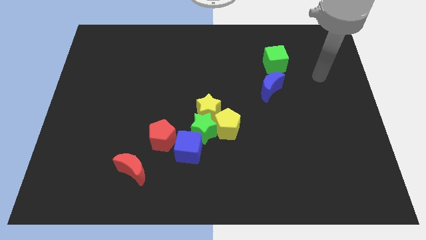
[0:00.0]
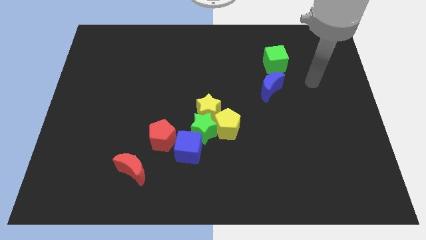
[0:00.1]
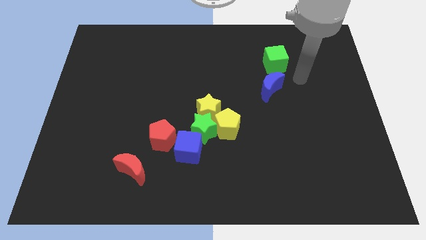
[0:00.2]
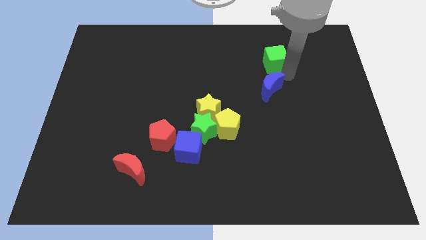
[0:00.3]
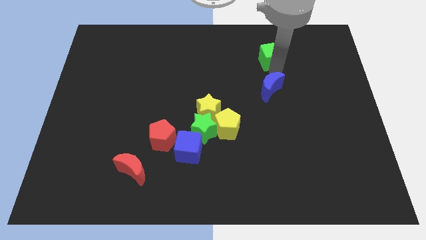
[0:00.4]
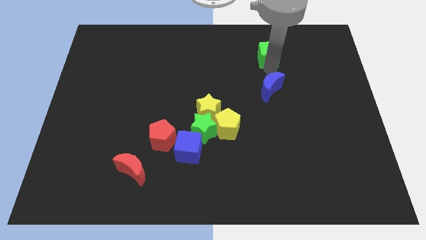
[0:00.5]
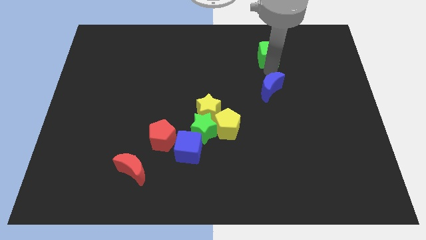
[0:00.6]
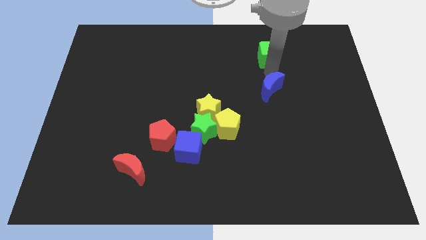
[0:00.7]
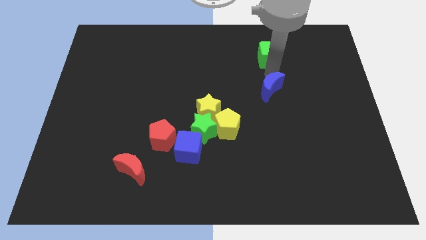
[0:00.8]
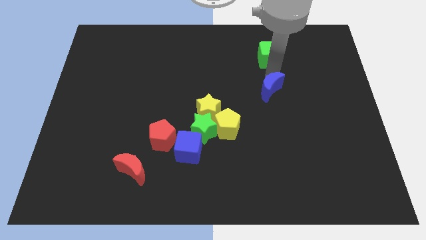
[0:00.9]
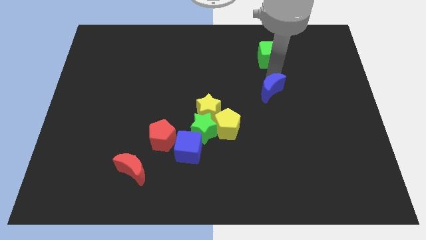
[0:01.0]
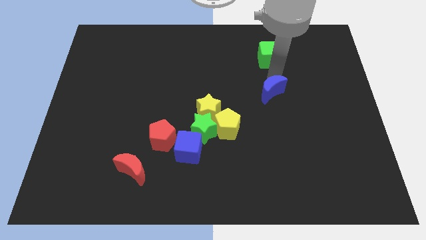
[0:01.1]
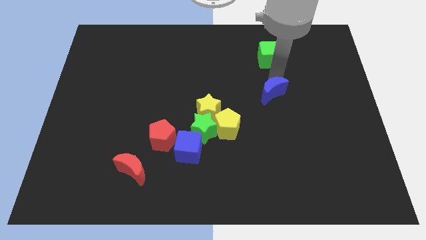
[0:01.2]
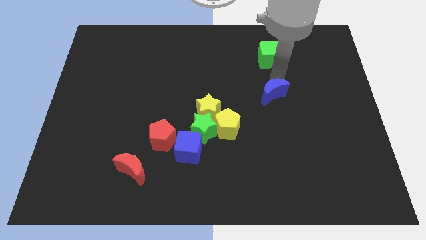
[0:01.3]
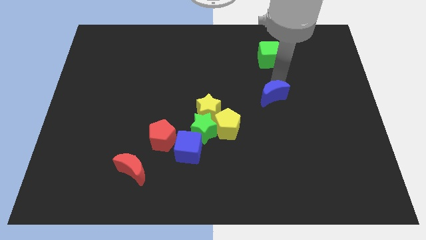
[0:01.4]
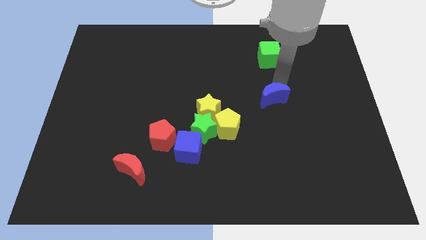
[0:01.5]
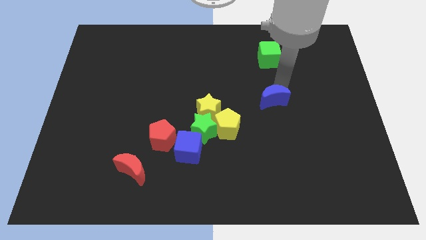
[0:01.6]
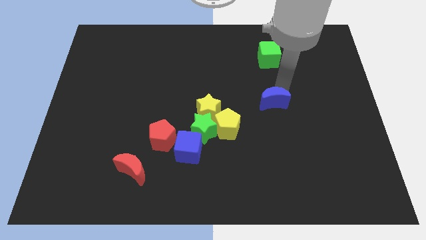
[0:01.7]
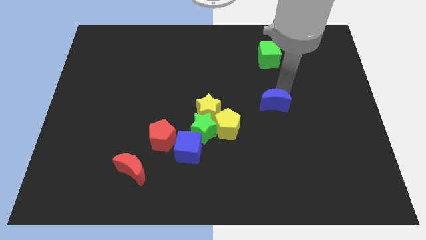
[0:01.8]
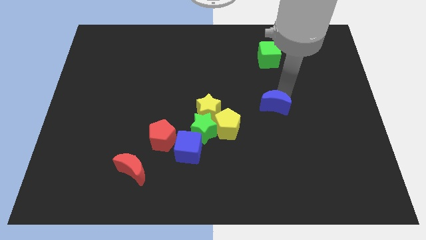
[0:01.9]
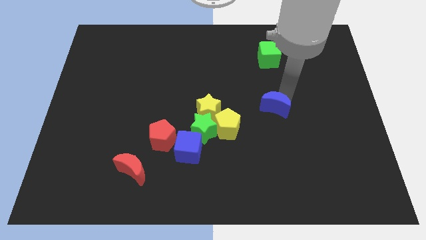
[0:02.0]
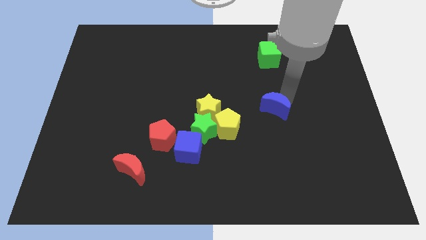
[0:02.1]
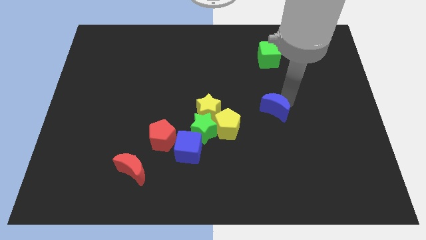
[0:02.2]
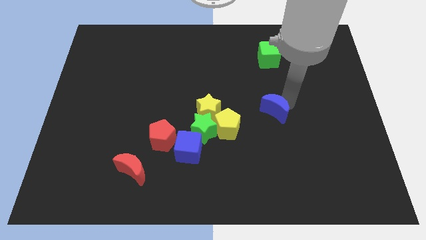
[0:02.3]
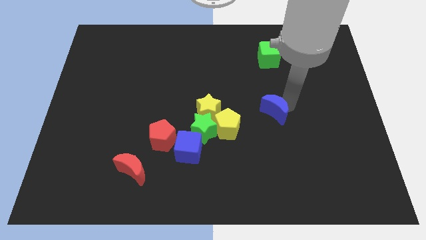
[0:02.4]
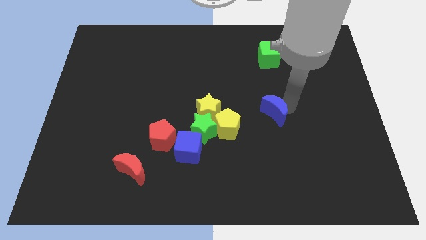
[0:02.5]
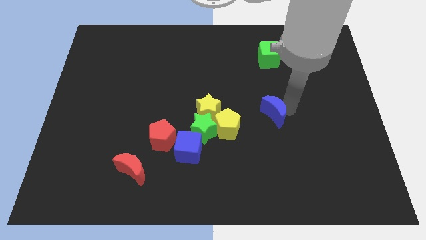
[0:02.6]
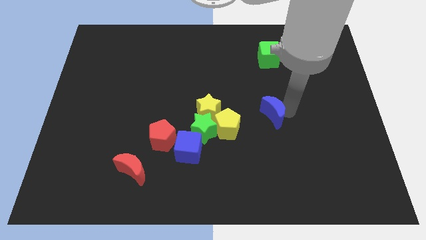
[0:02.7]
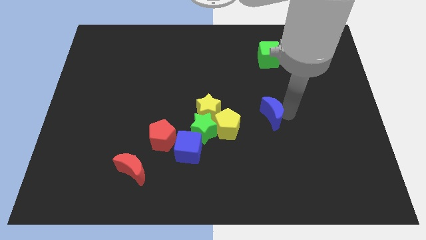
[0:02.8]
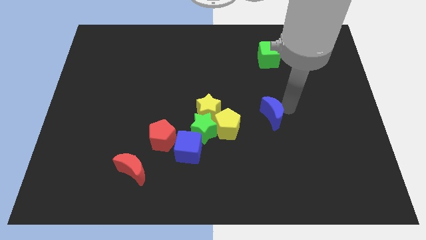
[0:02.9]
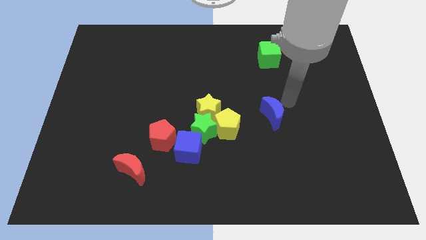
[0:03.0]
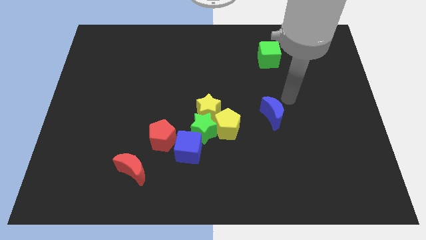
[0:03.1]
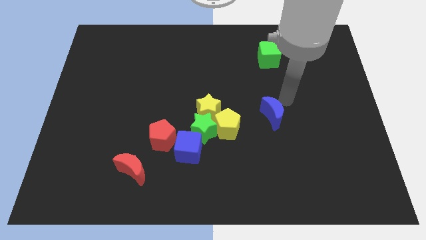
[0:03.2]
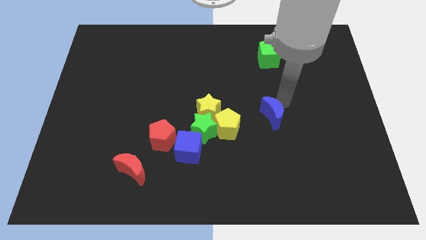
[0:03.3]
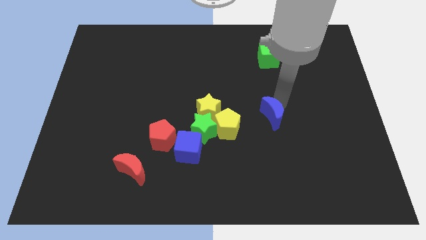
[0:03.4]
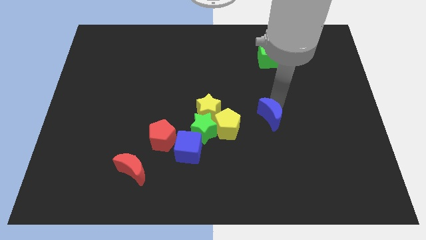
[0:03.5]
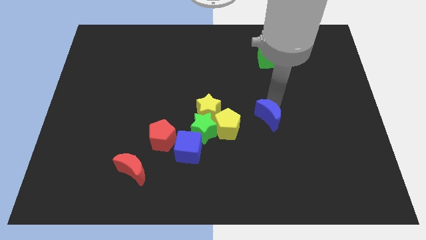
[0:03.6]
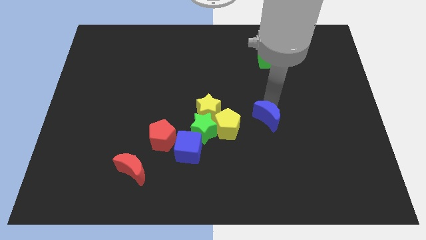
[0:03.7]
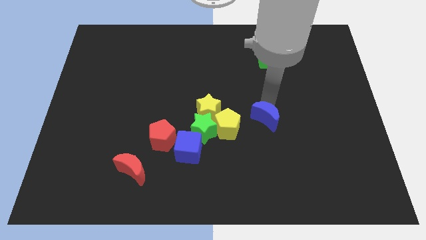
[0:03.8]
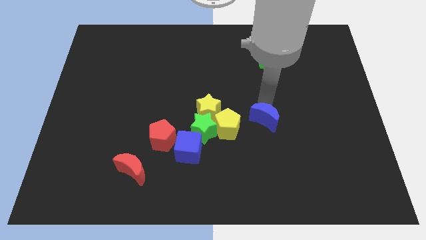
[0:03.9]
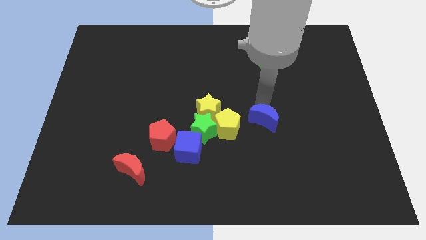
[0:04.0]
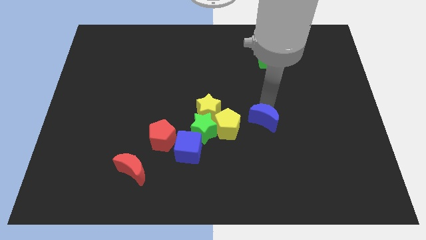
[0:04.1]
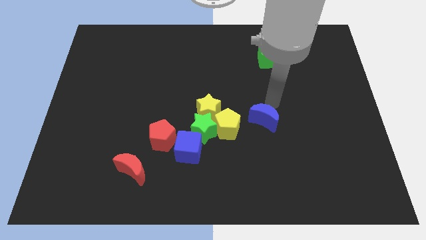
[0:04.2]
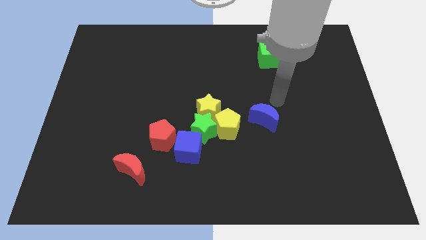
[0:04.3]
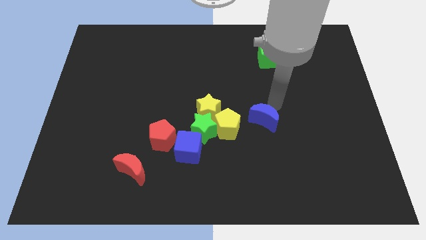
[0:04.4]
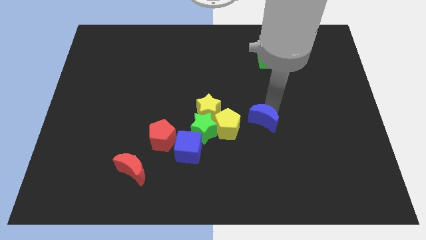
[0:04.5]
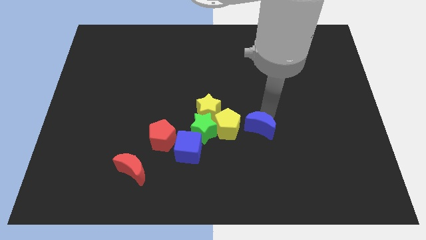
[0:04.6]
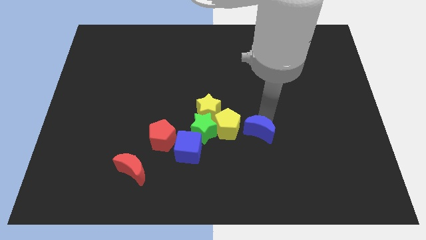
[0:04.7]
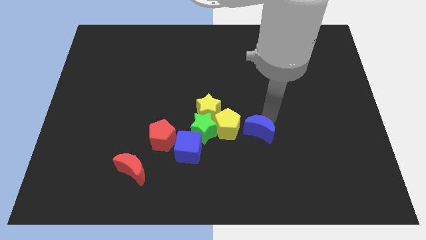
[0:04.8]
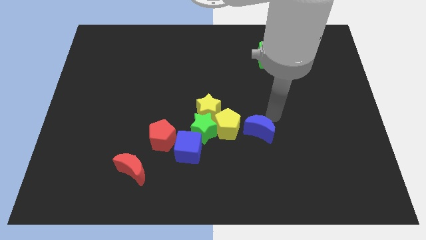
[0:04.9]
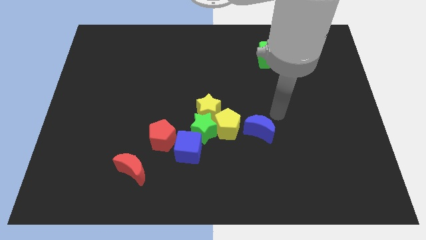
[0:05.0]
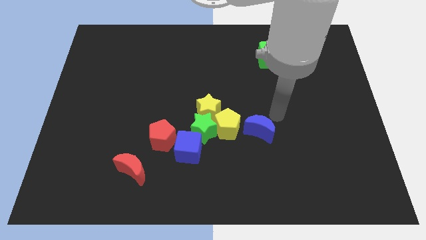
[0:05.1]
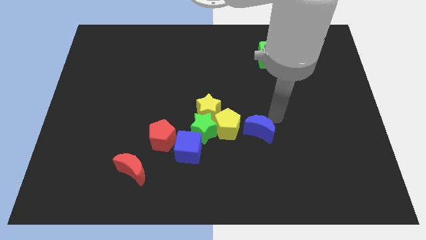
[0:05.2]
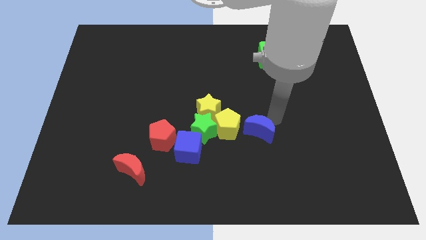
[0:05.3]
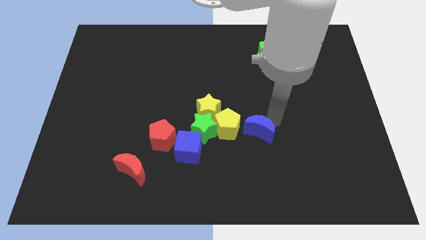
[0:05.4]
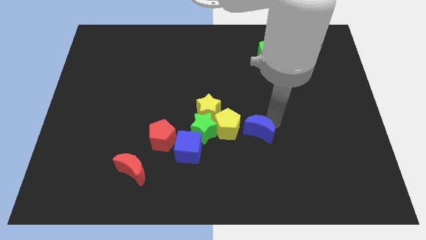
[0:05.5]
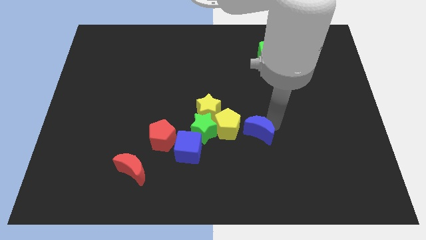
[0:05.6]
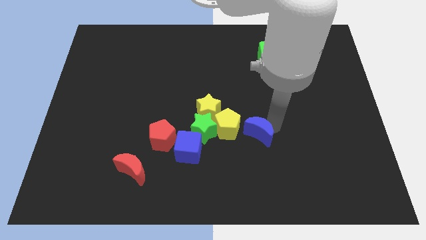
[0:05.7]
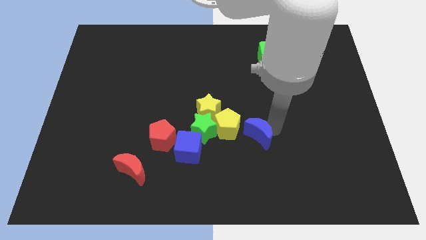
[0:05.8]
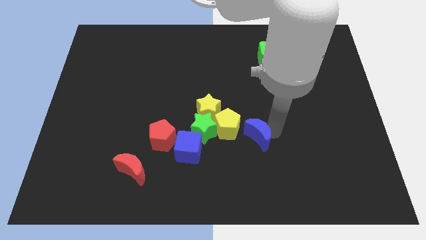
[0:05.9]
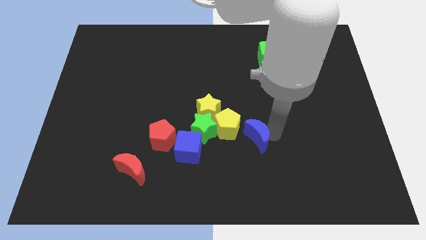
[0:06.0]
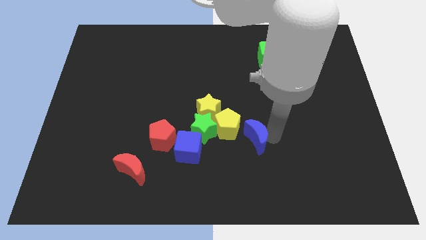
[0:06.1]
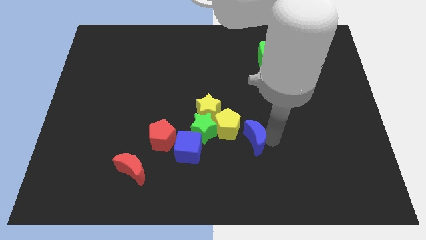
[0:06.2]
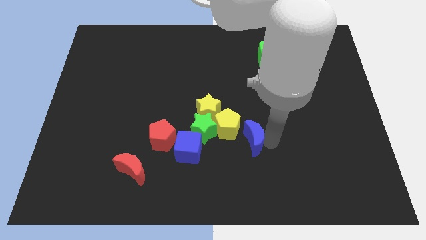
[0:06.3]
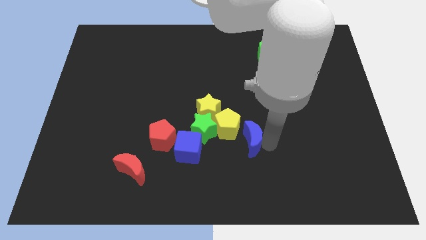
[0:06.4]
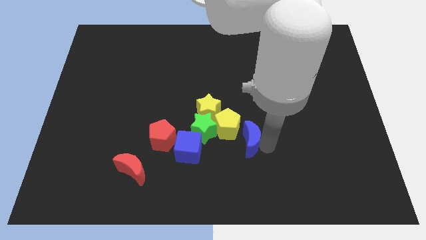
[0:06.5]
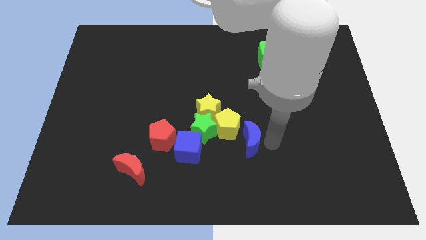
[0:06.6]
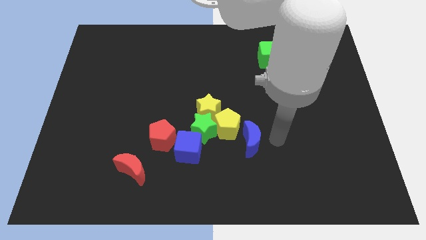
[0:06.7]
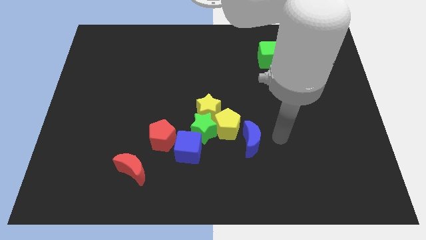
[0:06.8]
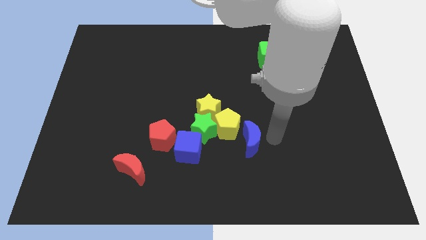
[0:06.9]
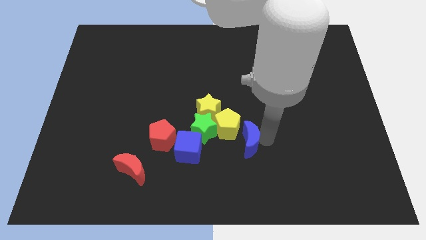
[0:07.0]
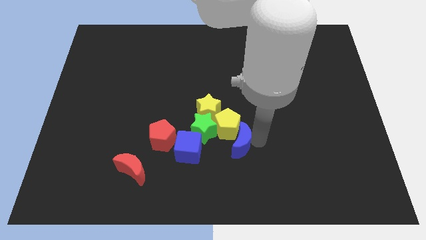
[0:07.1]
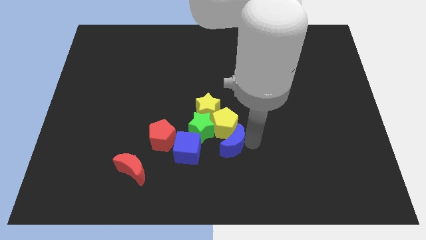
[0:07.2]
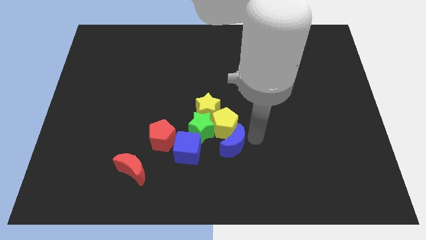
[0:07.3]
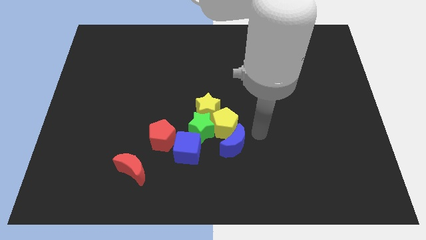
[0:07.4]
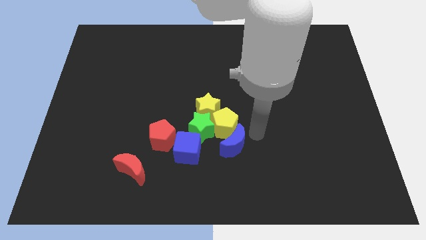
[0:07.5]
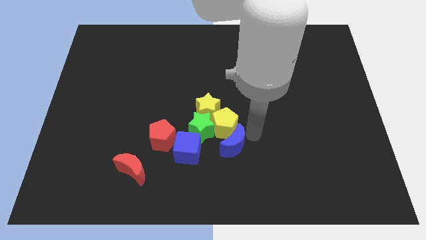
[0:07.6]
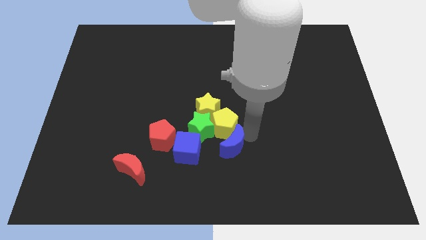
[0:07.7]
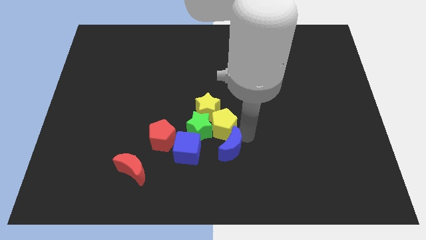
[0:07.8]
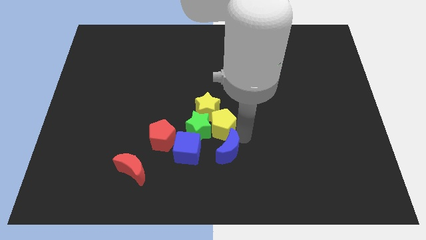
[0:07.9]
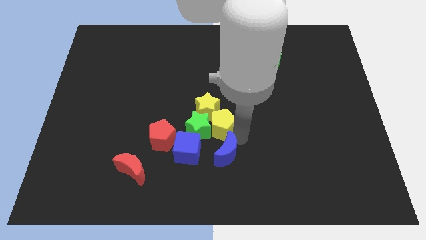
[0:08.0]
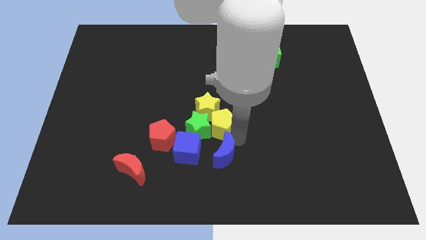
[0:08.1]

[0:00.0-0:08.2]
push the blue moon diagonally downwards and to the left

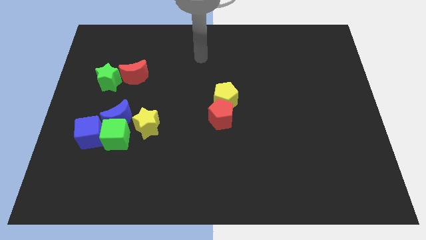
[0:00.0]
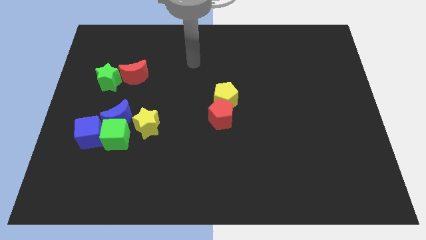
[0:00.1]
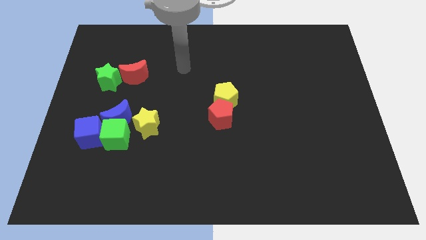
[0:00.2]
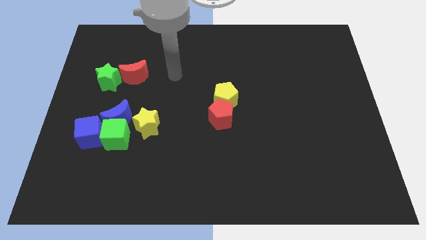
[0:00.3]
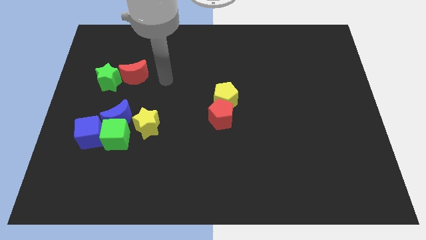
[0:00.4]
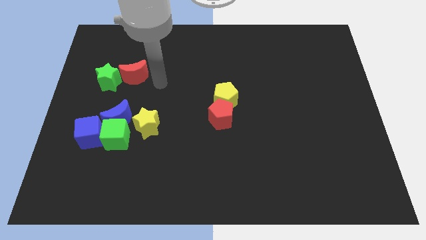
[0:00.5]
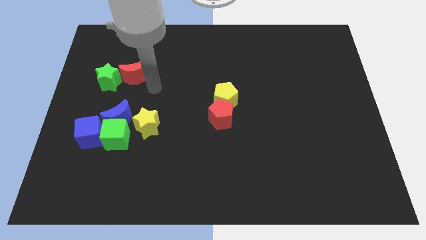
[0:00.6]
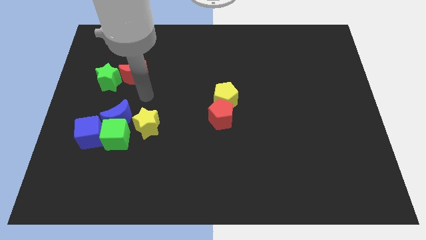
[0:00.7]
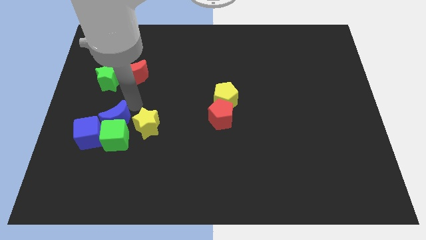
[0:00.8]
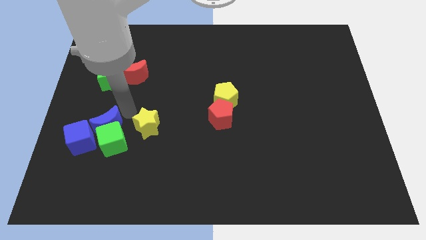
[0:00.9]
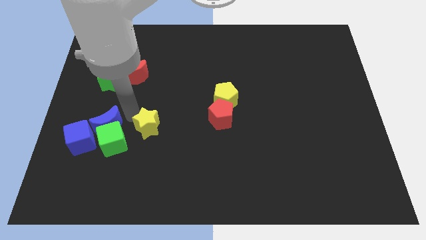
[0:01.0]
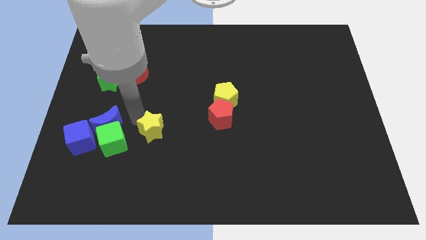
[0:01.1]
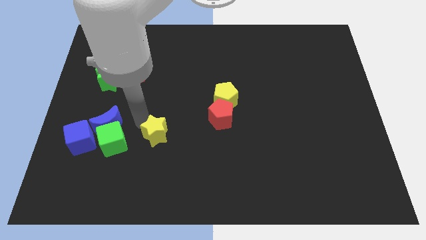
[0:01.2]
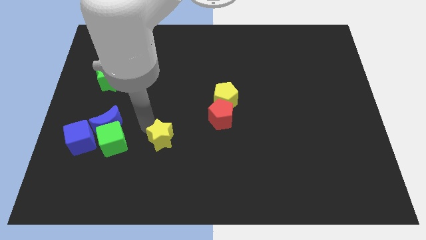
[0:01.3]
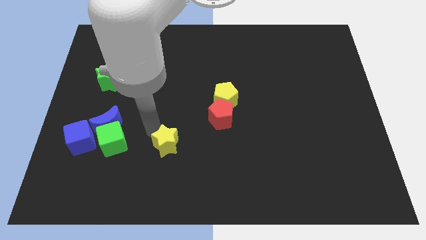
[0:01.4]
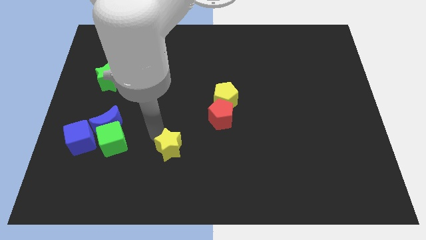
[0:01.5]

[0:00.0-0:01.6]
slide the yellow star a little diagonally downwards and right
